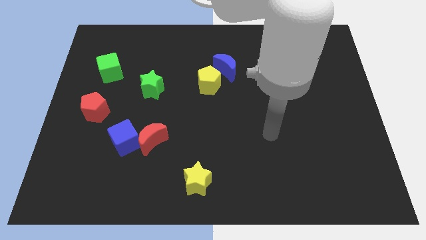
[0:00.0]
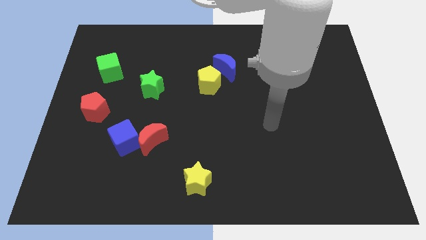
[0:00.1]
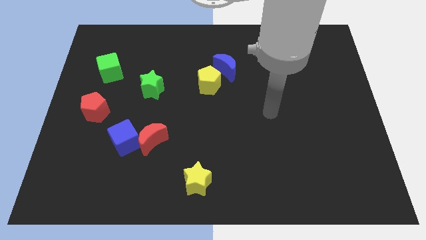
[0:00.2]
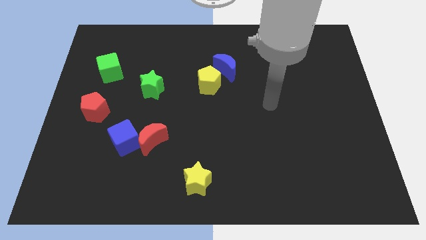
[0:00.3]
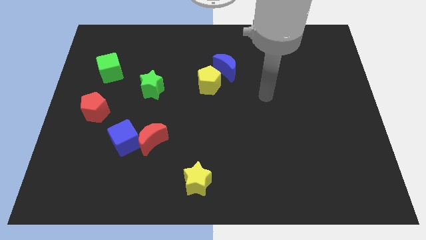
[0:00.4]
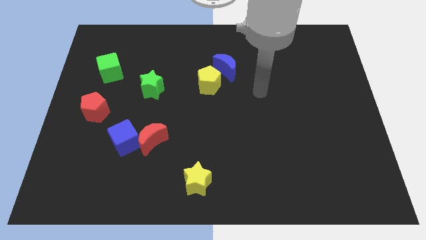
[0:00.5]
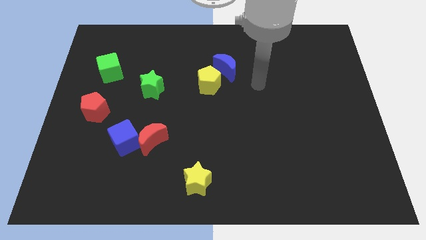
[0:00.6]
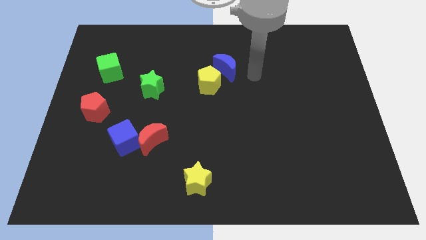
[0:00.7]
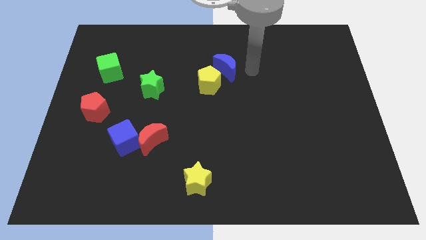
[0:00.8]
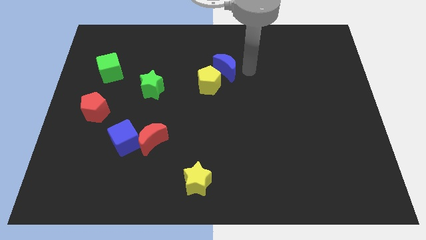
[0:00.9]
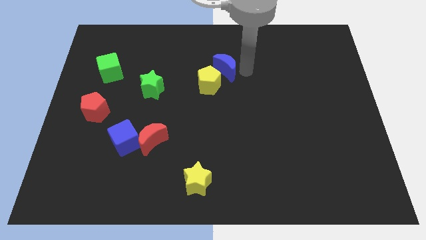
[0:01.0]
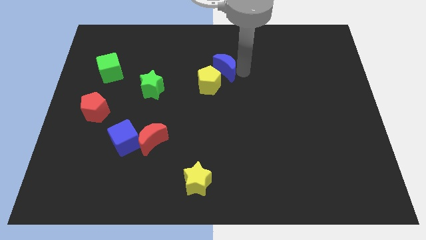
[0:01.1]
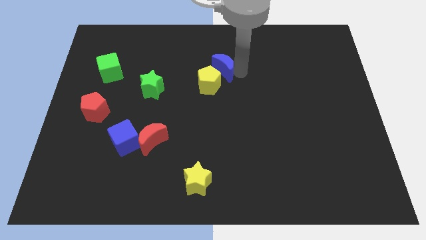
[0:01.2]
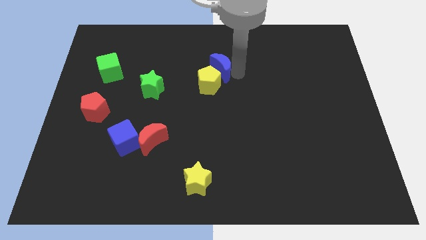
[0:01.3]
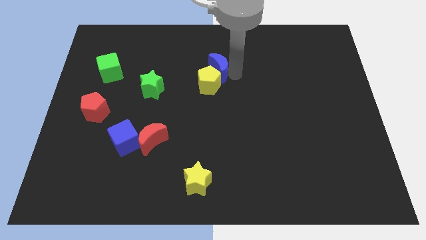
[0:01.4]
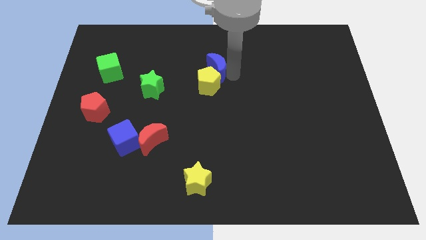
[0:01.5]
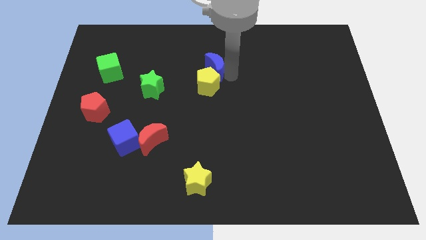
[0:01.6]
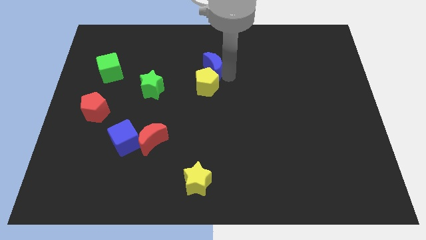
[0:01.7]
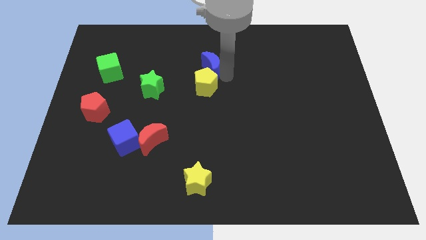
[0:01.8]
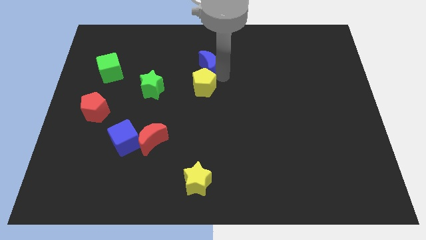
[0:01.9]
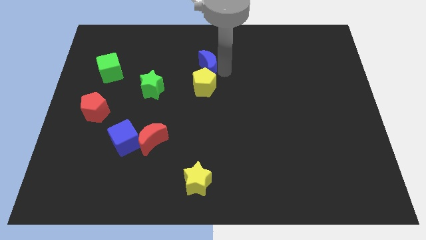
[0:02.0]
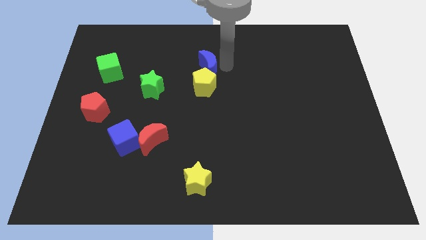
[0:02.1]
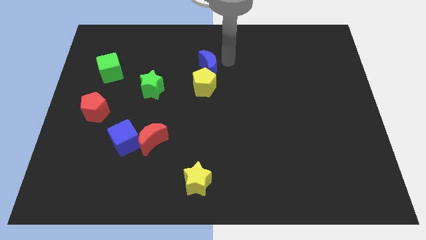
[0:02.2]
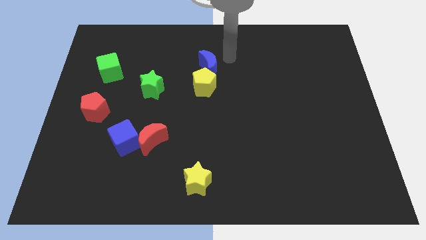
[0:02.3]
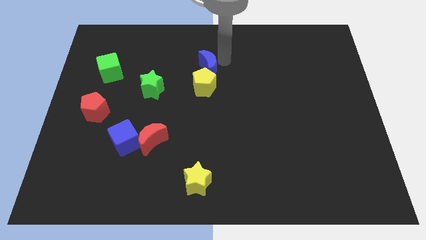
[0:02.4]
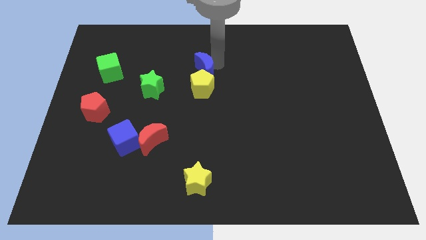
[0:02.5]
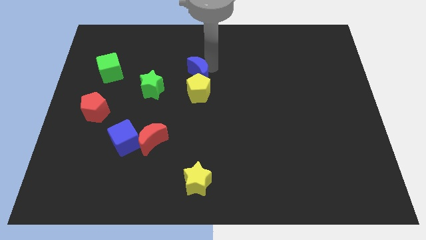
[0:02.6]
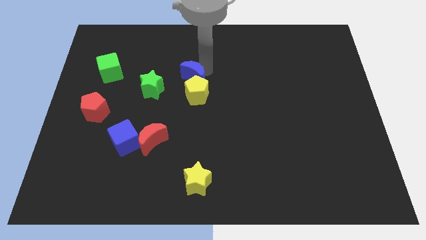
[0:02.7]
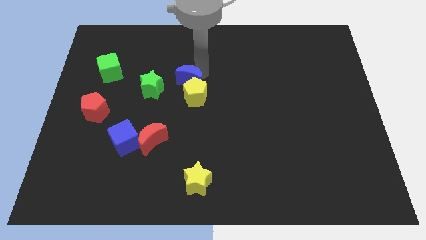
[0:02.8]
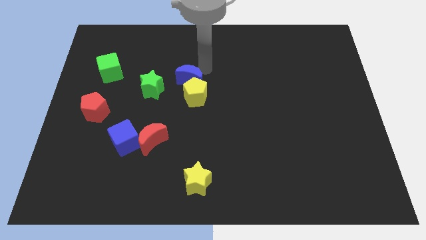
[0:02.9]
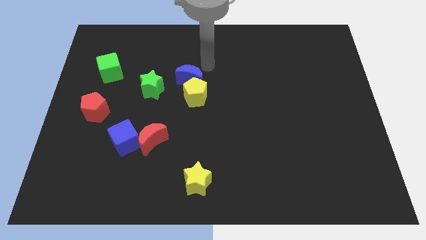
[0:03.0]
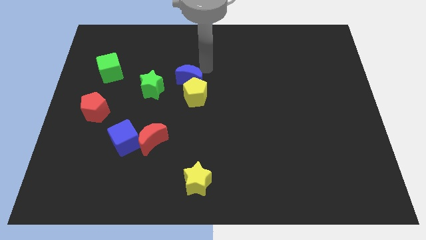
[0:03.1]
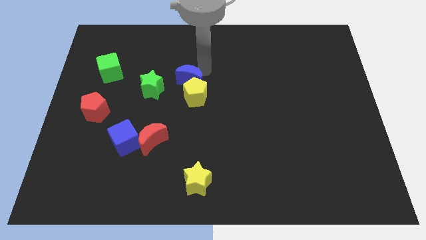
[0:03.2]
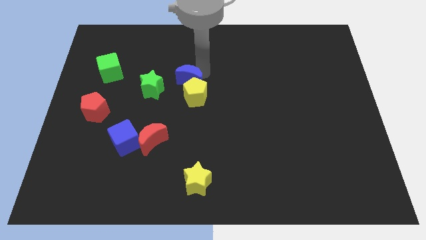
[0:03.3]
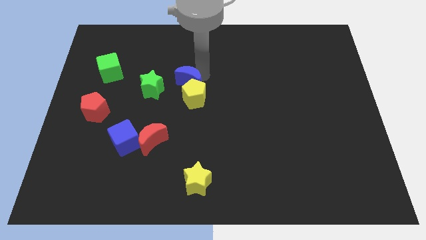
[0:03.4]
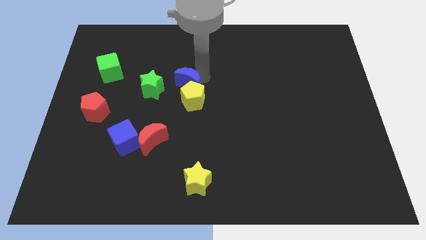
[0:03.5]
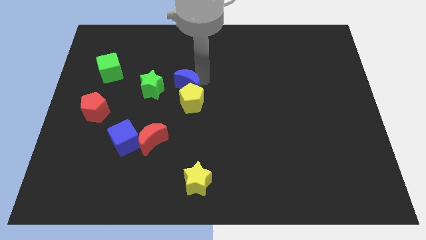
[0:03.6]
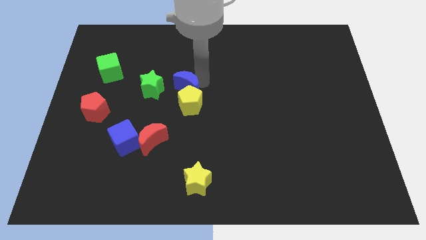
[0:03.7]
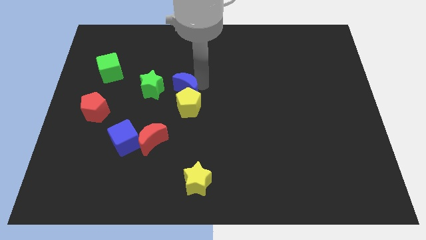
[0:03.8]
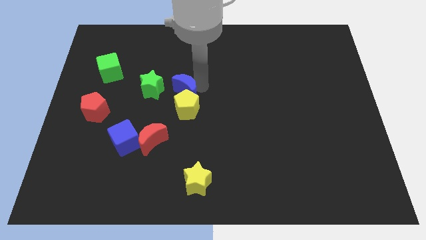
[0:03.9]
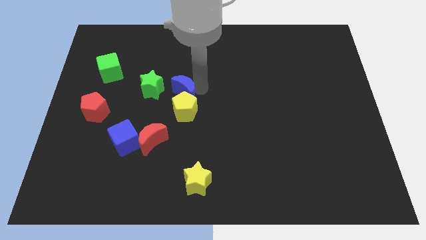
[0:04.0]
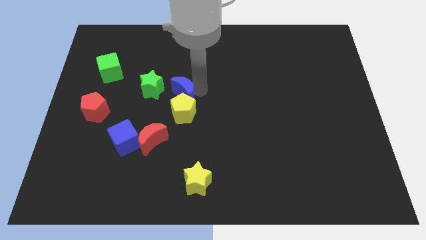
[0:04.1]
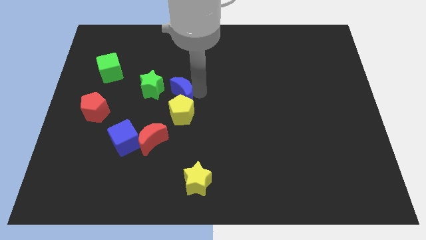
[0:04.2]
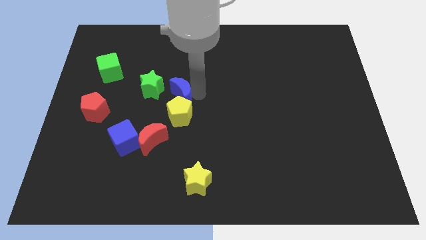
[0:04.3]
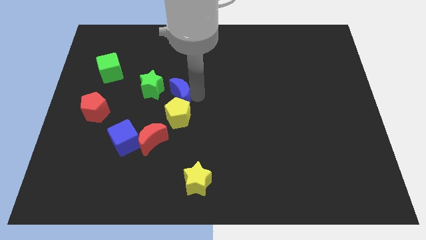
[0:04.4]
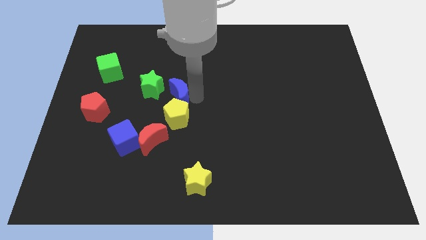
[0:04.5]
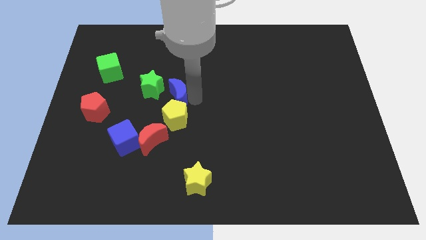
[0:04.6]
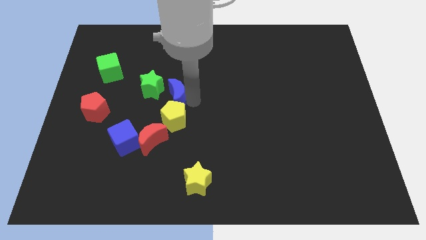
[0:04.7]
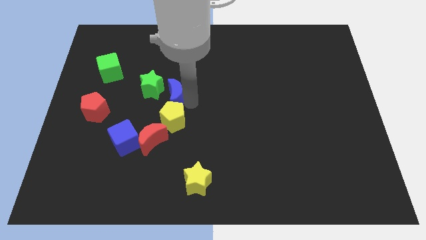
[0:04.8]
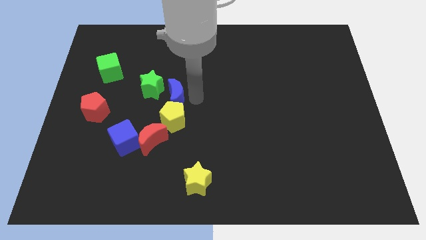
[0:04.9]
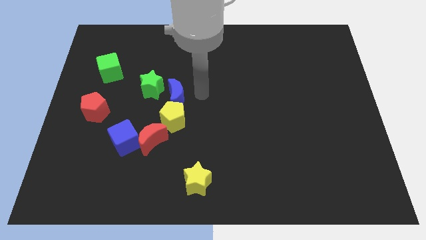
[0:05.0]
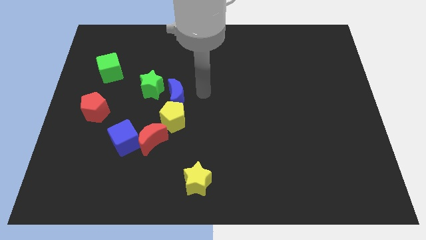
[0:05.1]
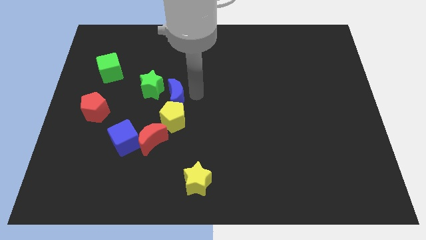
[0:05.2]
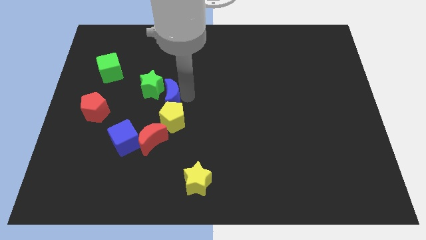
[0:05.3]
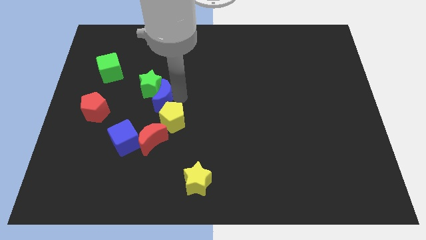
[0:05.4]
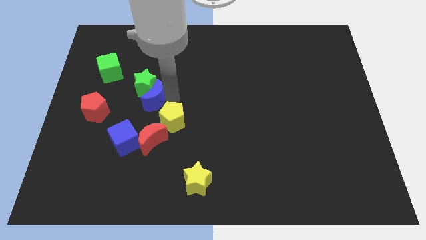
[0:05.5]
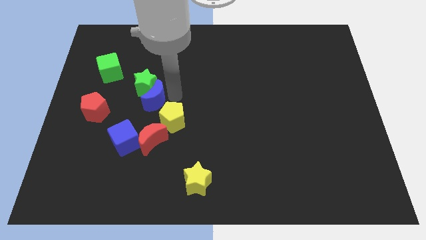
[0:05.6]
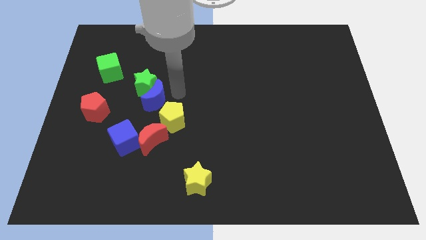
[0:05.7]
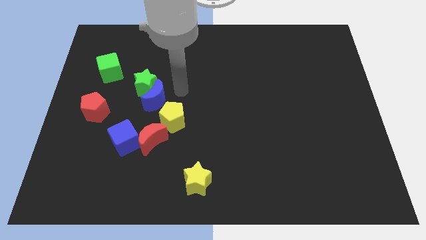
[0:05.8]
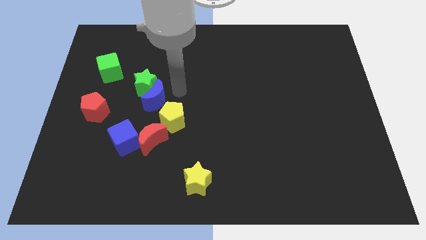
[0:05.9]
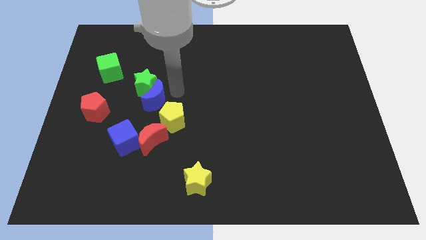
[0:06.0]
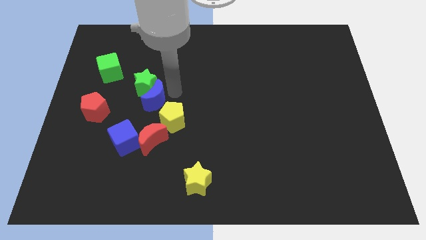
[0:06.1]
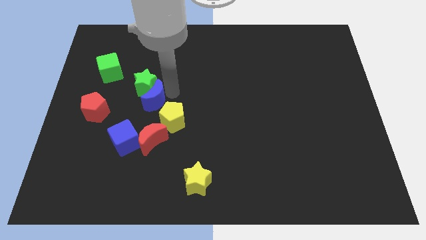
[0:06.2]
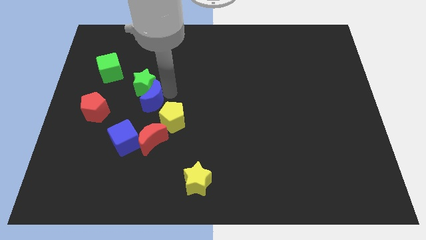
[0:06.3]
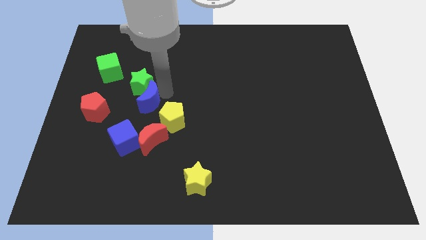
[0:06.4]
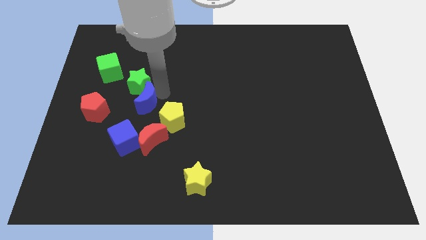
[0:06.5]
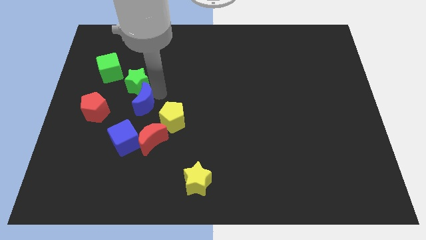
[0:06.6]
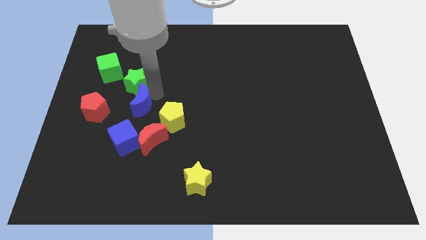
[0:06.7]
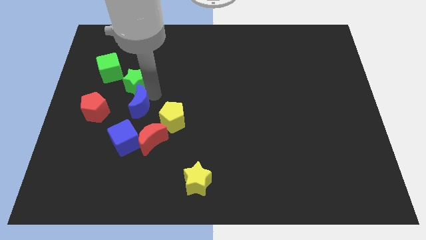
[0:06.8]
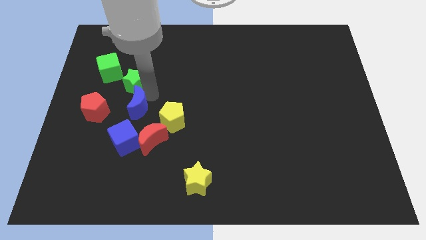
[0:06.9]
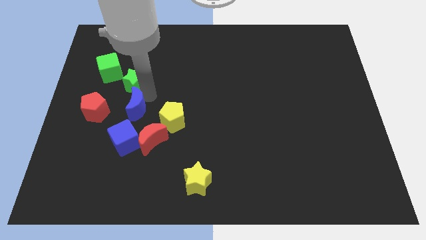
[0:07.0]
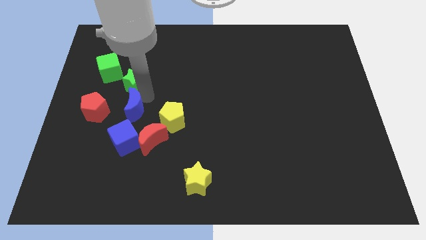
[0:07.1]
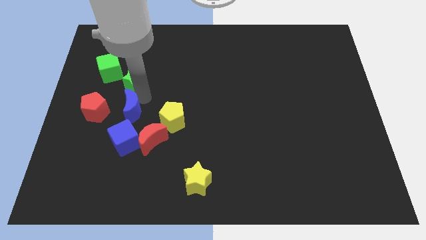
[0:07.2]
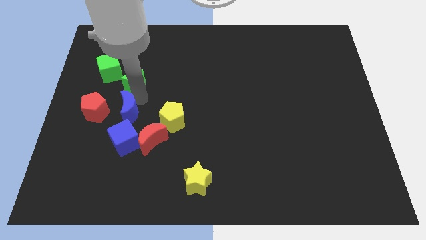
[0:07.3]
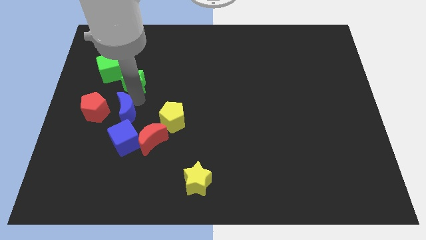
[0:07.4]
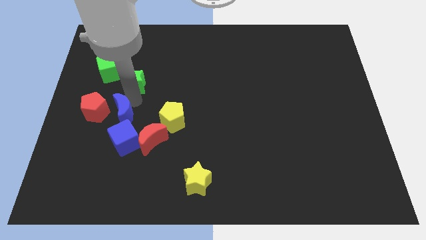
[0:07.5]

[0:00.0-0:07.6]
push the blue moon diagonally up and to the left of the blue cube
